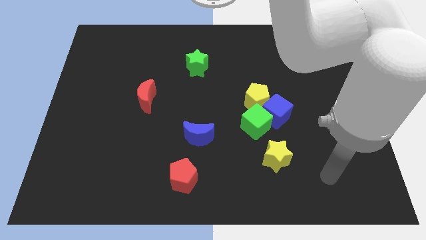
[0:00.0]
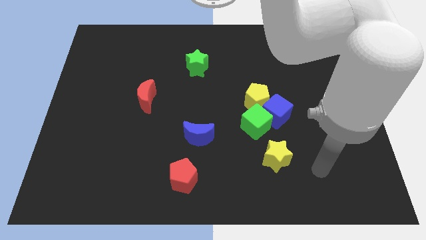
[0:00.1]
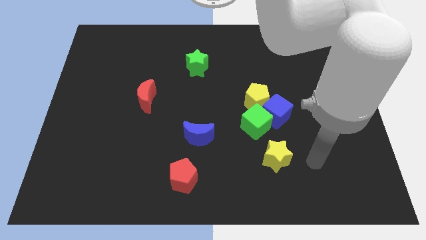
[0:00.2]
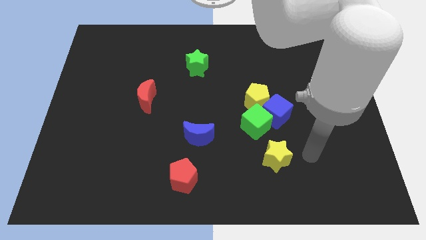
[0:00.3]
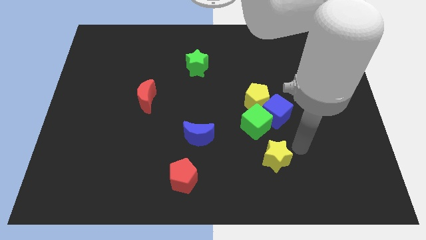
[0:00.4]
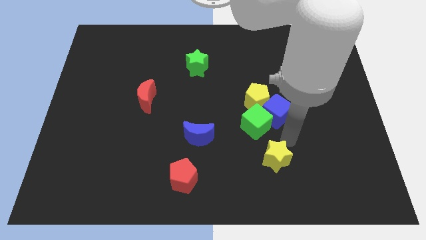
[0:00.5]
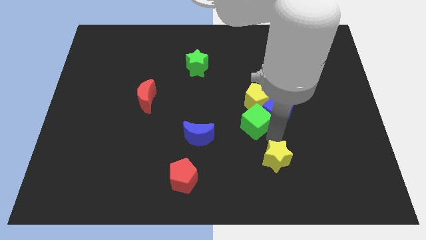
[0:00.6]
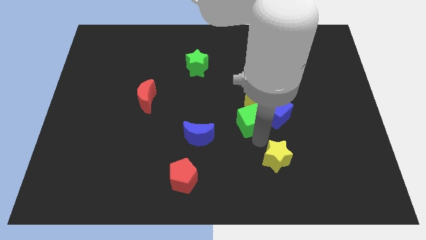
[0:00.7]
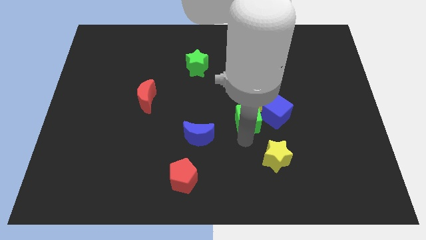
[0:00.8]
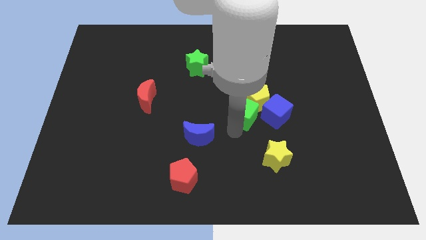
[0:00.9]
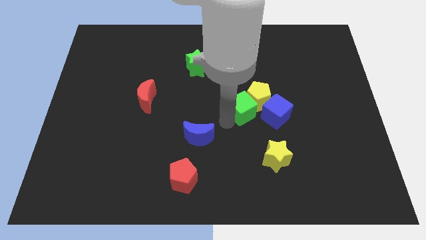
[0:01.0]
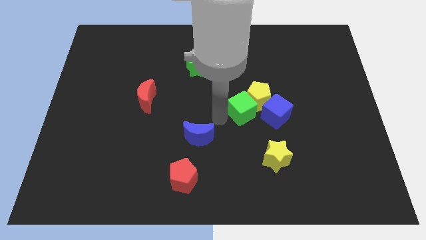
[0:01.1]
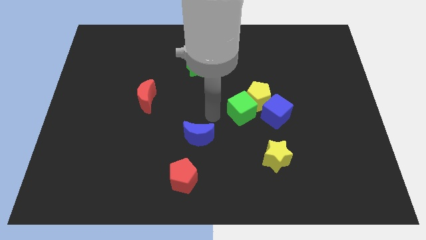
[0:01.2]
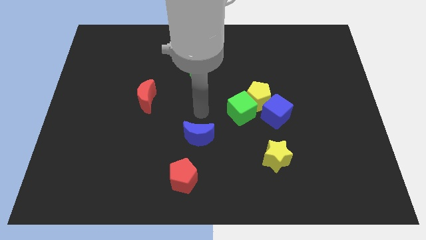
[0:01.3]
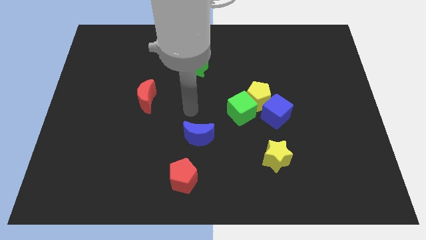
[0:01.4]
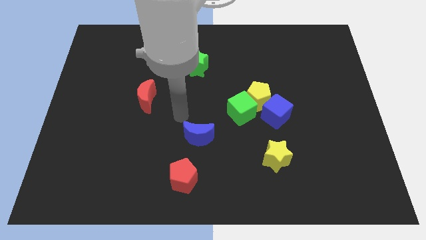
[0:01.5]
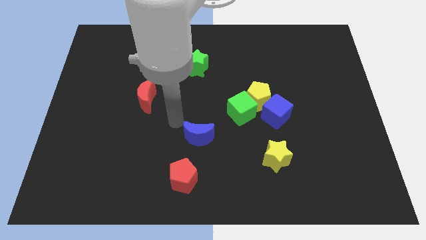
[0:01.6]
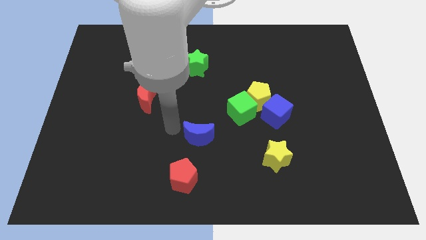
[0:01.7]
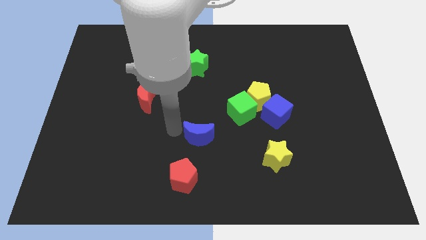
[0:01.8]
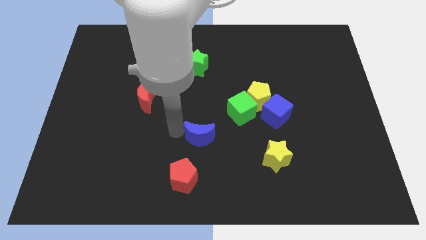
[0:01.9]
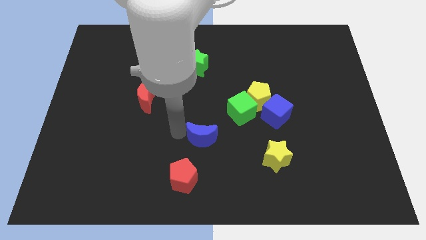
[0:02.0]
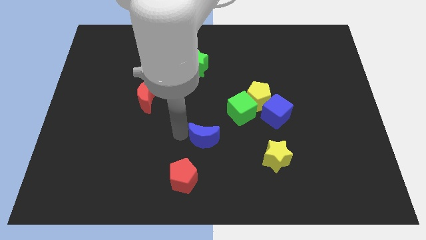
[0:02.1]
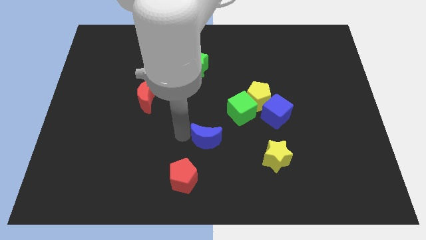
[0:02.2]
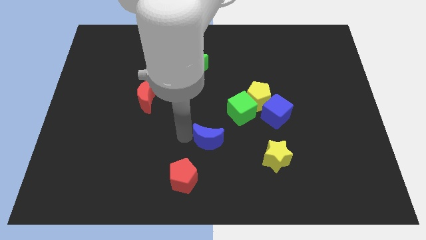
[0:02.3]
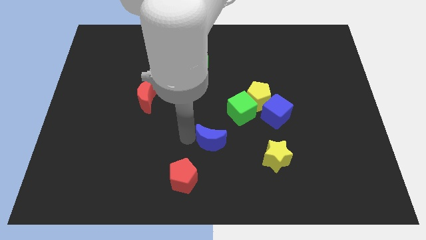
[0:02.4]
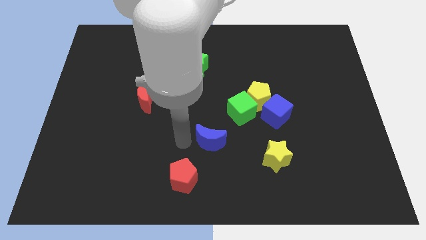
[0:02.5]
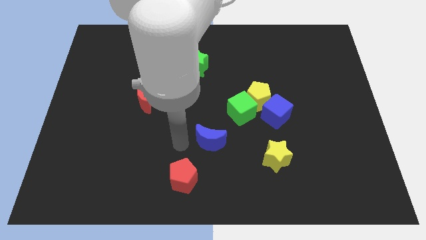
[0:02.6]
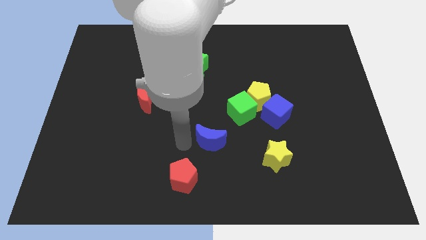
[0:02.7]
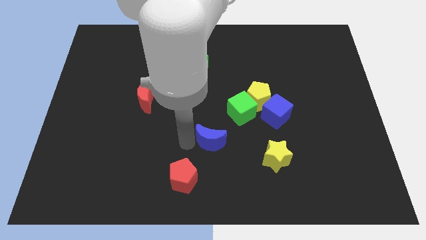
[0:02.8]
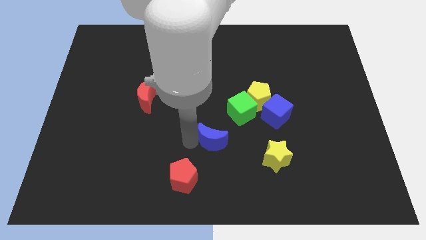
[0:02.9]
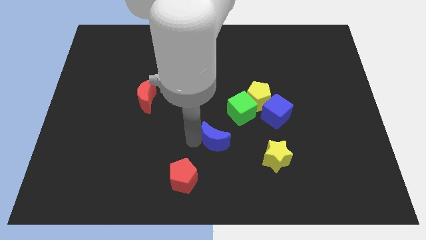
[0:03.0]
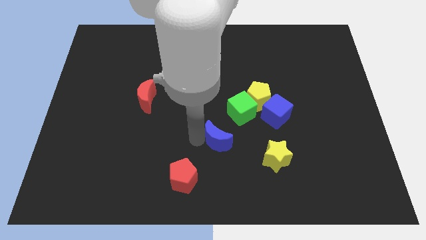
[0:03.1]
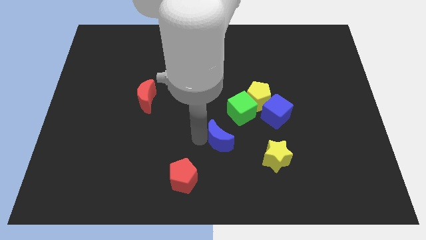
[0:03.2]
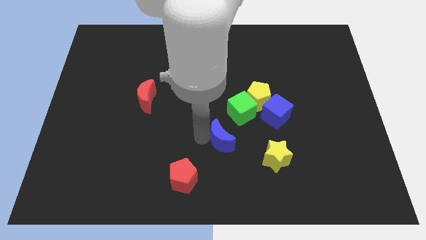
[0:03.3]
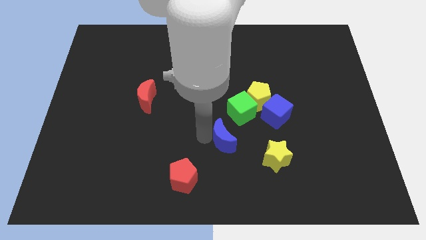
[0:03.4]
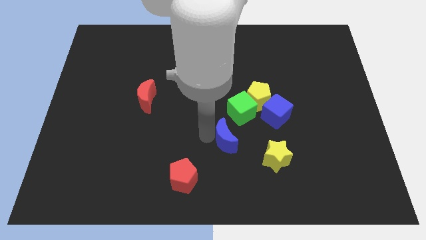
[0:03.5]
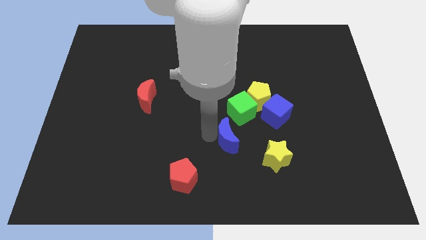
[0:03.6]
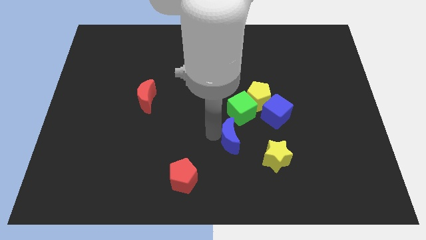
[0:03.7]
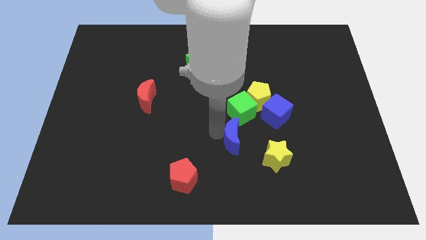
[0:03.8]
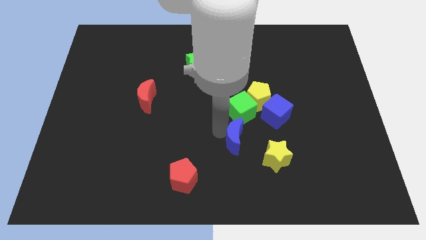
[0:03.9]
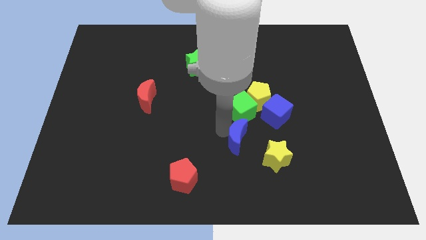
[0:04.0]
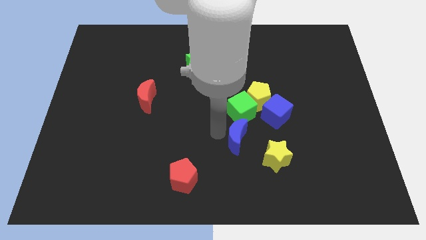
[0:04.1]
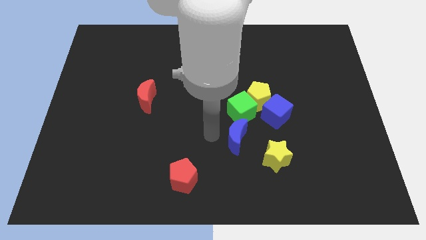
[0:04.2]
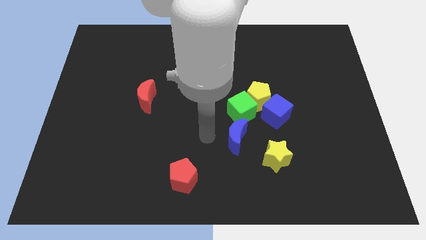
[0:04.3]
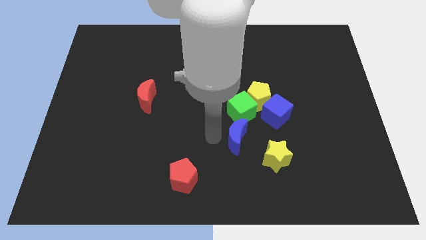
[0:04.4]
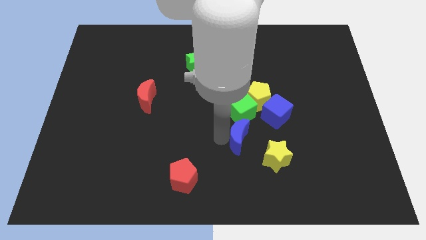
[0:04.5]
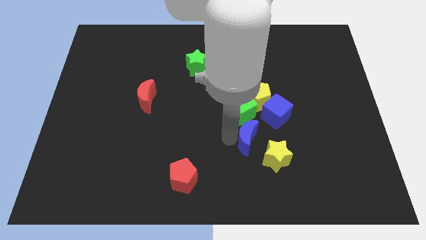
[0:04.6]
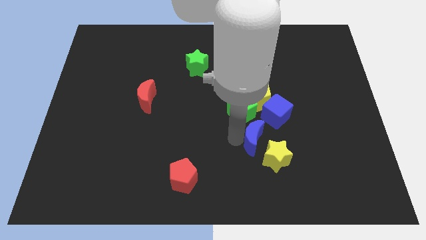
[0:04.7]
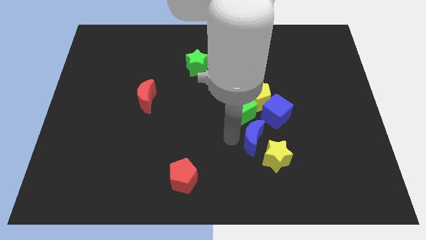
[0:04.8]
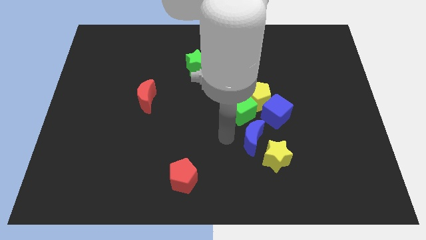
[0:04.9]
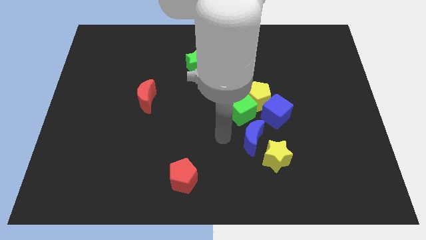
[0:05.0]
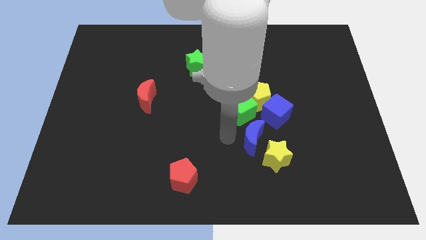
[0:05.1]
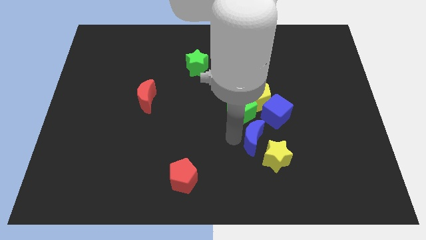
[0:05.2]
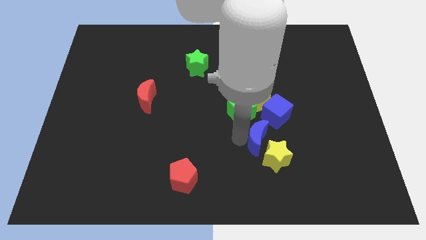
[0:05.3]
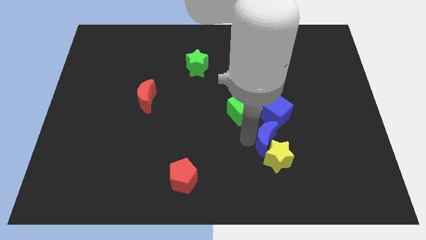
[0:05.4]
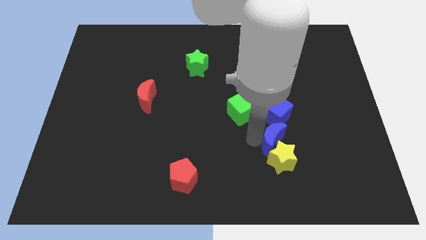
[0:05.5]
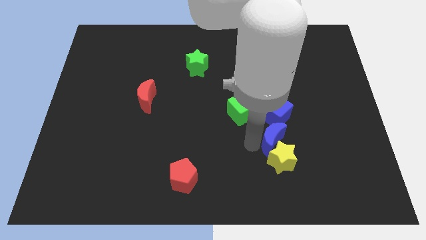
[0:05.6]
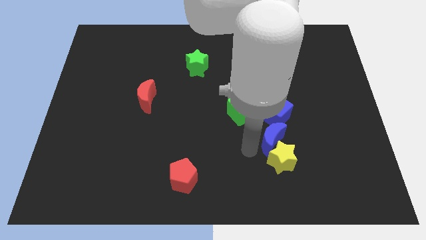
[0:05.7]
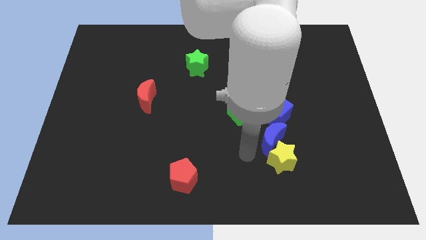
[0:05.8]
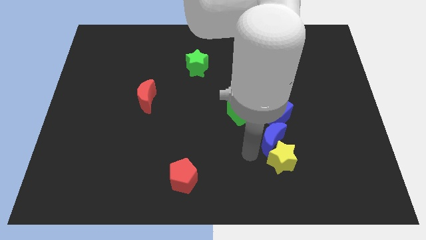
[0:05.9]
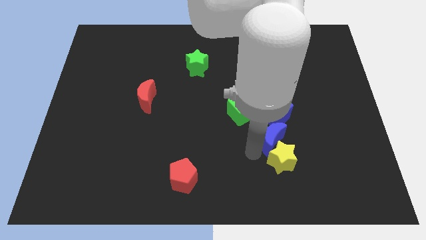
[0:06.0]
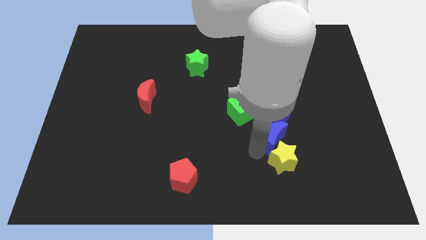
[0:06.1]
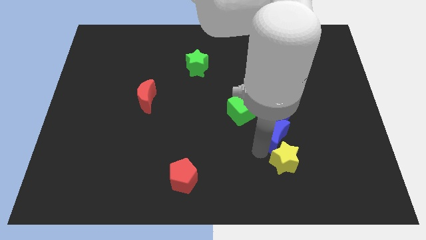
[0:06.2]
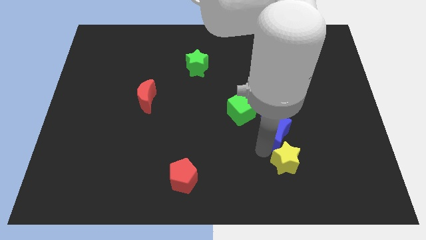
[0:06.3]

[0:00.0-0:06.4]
slide the blue moon towards the blue cube

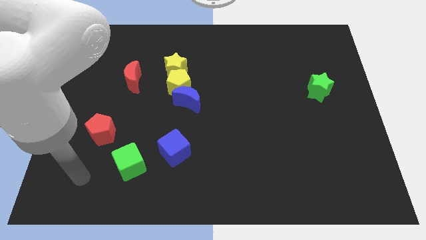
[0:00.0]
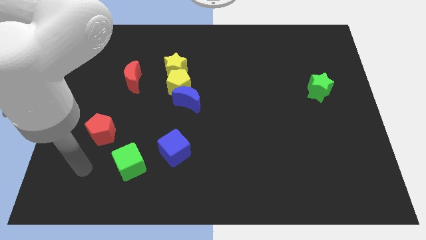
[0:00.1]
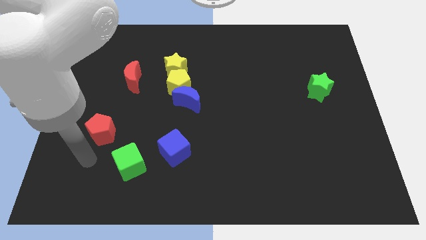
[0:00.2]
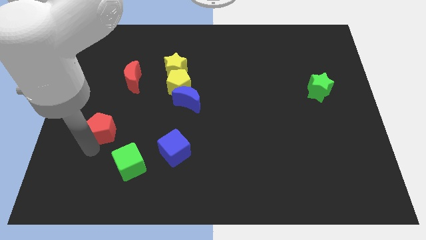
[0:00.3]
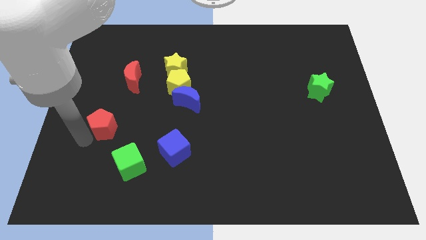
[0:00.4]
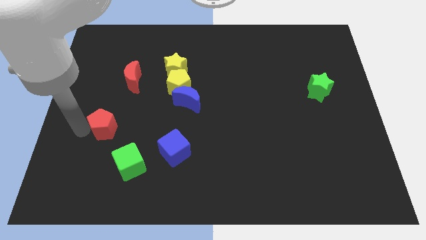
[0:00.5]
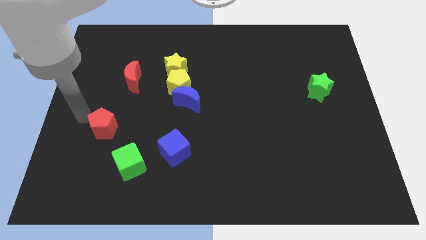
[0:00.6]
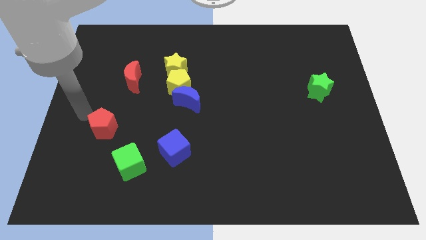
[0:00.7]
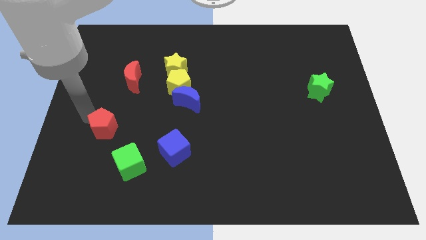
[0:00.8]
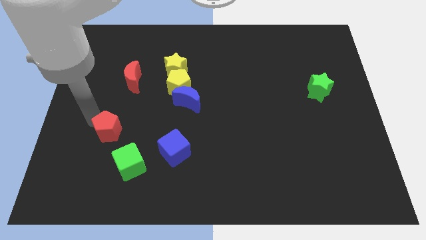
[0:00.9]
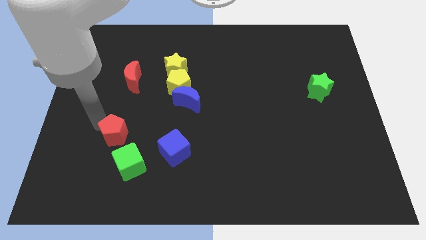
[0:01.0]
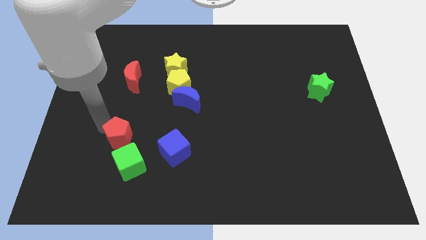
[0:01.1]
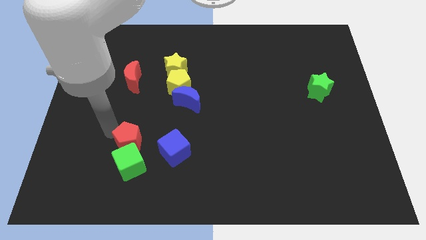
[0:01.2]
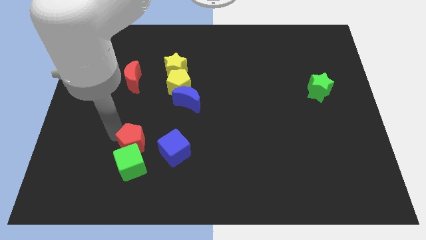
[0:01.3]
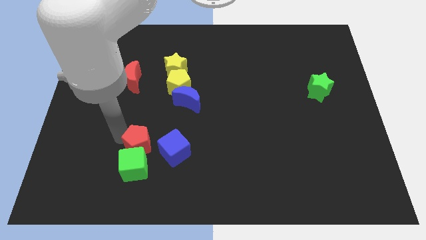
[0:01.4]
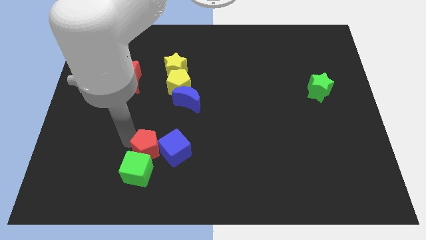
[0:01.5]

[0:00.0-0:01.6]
slide the red pentagon next to the blue cube
